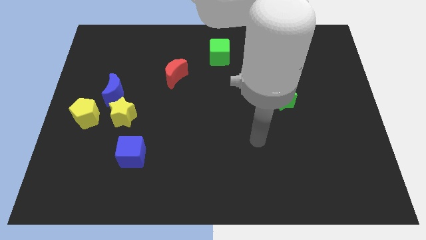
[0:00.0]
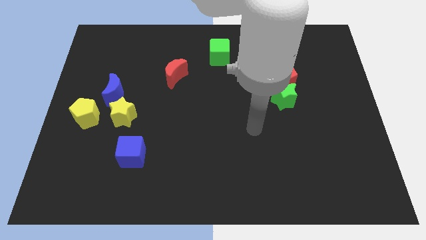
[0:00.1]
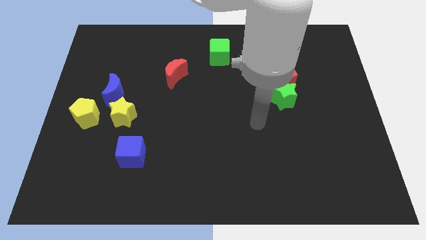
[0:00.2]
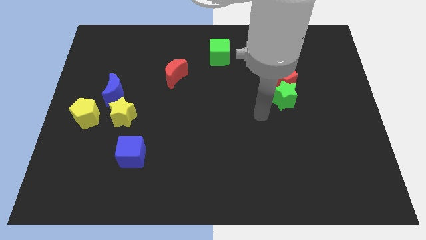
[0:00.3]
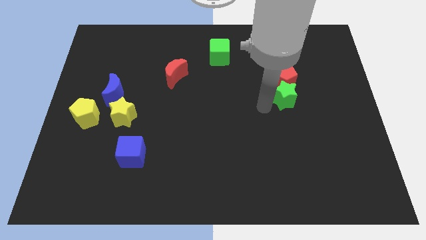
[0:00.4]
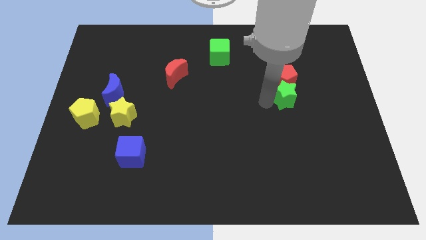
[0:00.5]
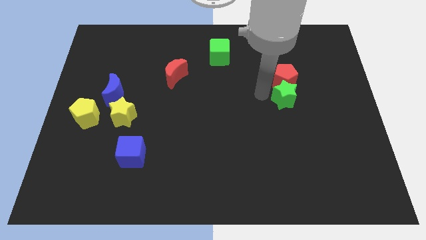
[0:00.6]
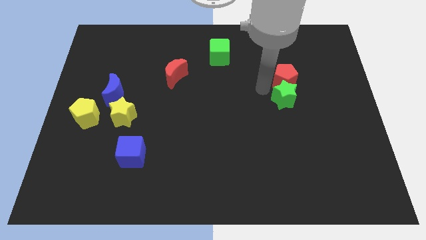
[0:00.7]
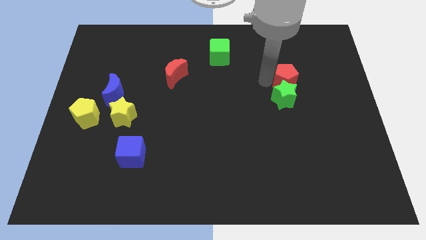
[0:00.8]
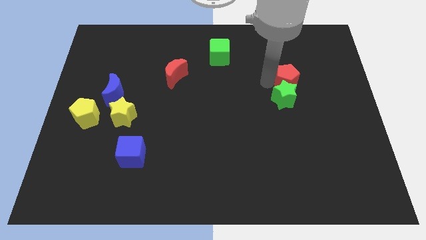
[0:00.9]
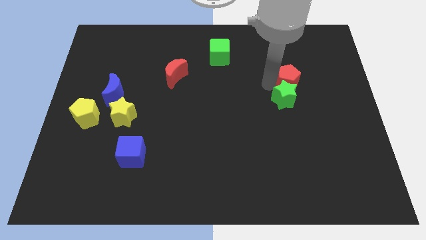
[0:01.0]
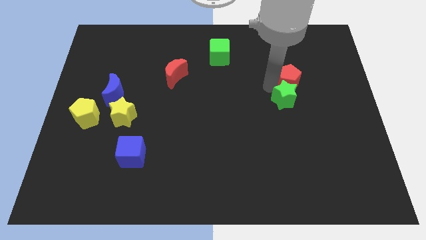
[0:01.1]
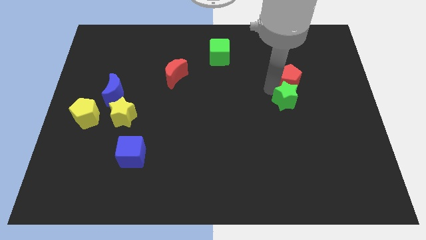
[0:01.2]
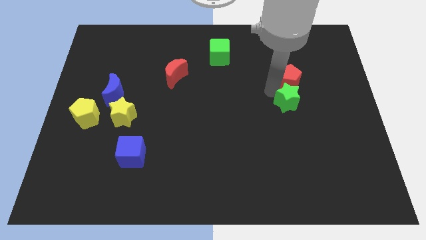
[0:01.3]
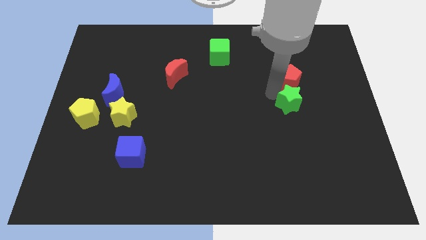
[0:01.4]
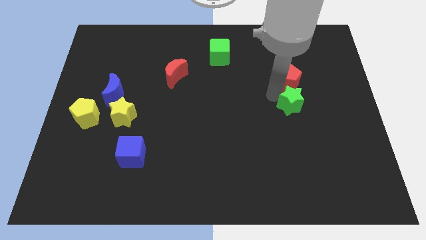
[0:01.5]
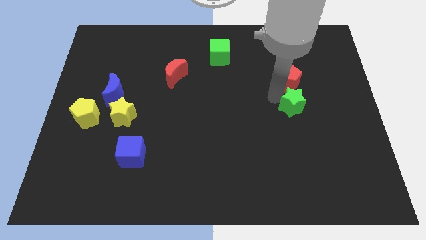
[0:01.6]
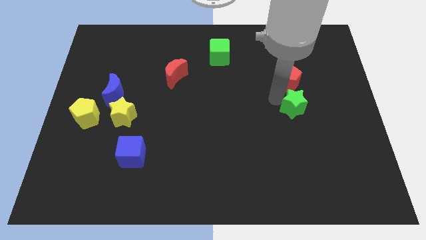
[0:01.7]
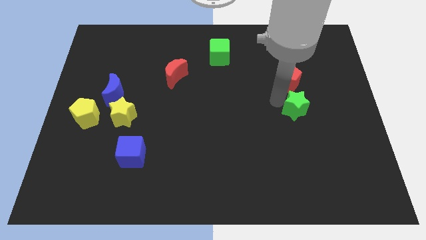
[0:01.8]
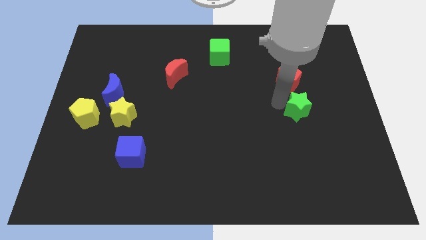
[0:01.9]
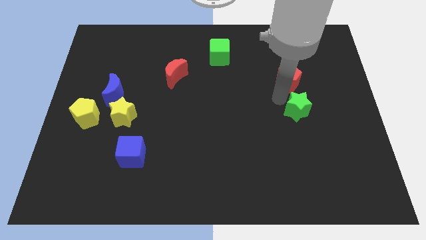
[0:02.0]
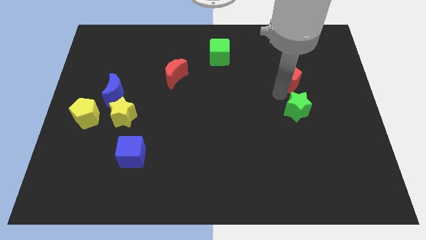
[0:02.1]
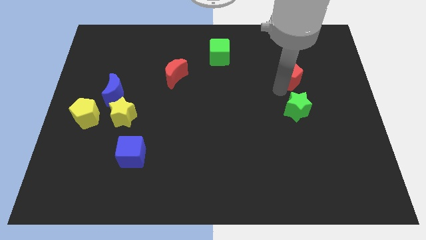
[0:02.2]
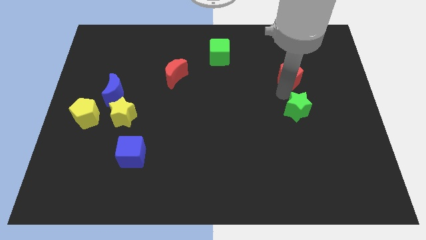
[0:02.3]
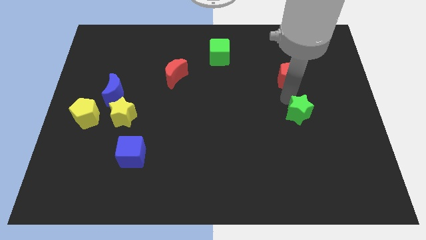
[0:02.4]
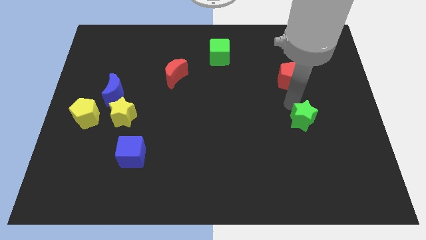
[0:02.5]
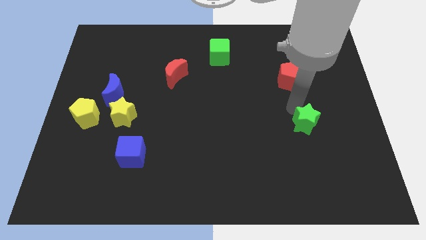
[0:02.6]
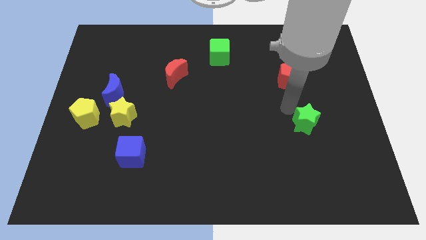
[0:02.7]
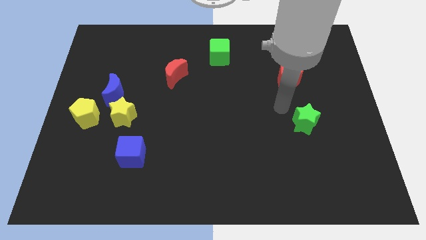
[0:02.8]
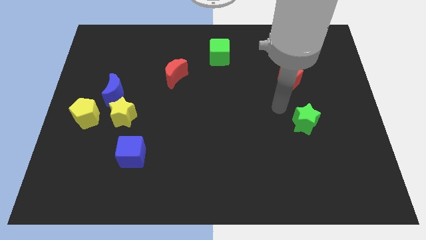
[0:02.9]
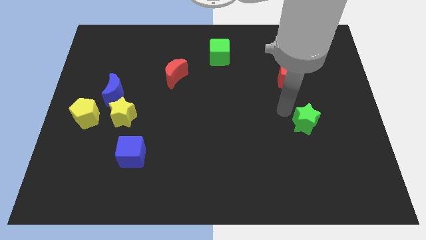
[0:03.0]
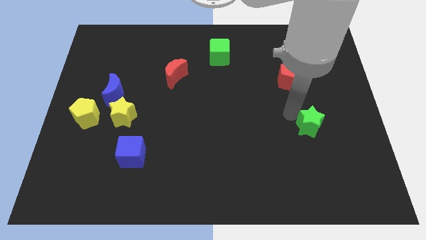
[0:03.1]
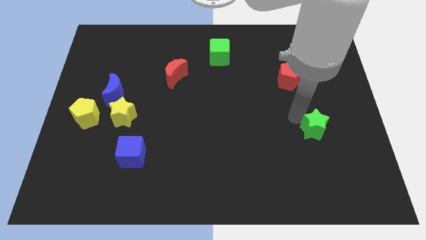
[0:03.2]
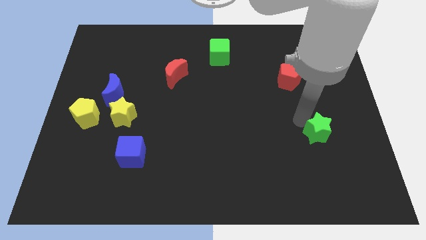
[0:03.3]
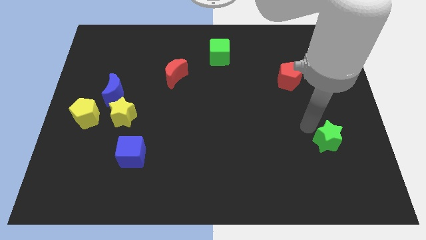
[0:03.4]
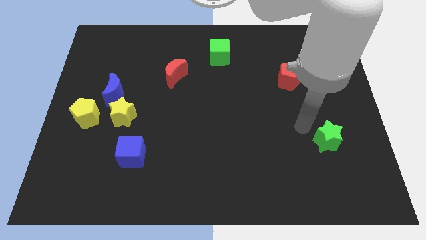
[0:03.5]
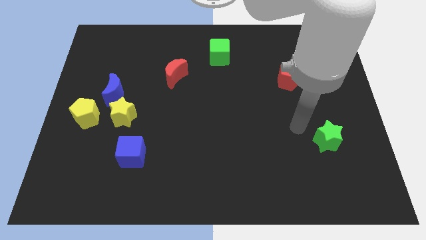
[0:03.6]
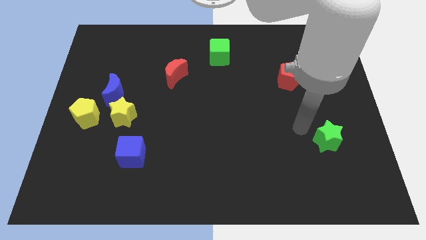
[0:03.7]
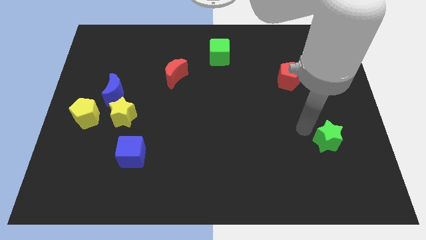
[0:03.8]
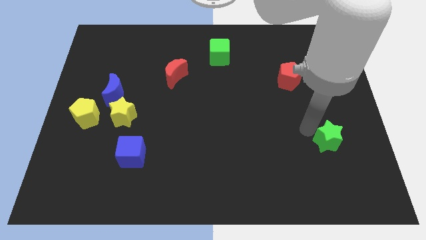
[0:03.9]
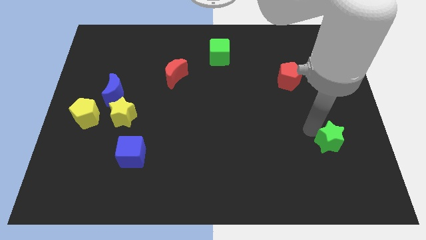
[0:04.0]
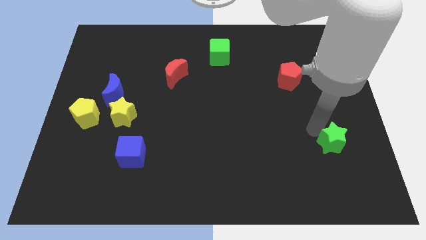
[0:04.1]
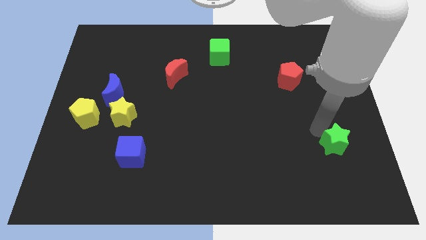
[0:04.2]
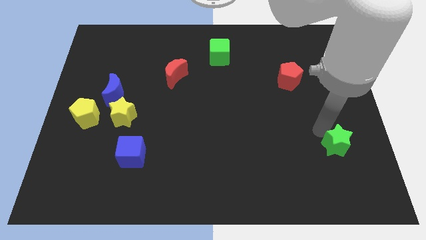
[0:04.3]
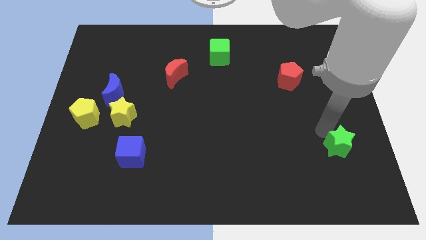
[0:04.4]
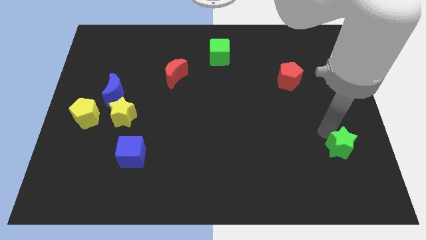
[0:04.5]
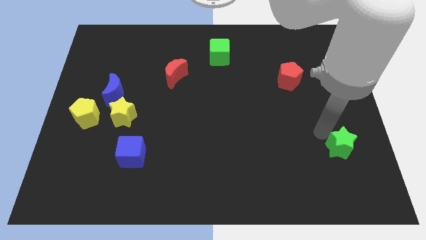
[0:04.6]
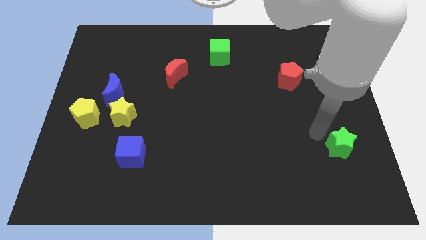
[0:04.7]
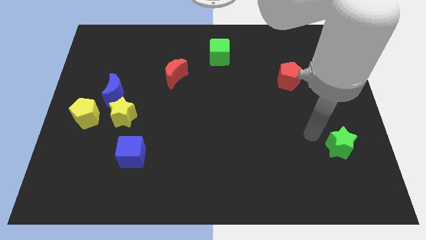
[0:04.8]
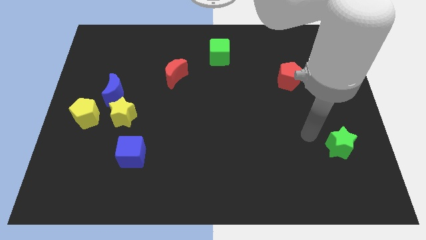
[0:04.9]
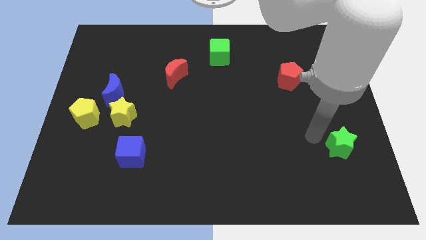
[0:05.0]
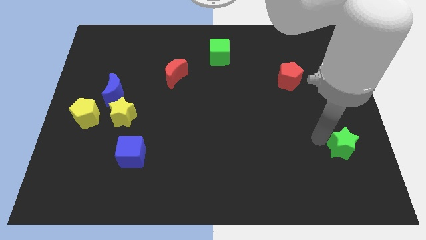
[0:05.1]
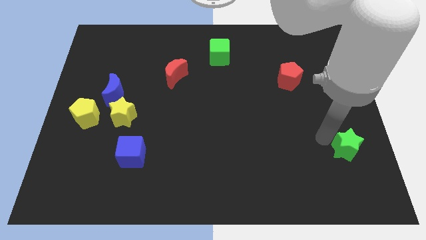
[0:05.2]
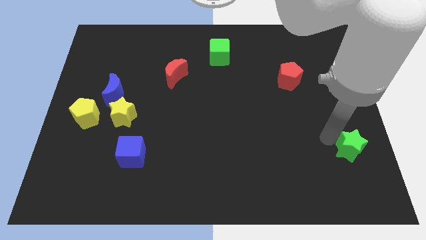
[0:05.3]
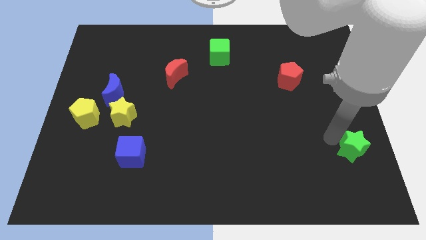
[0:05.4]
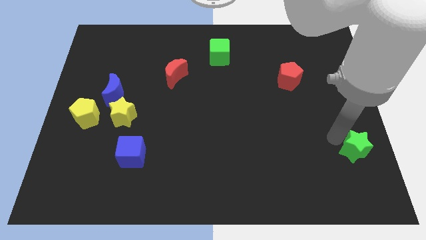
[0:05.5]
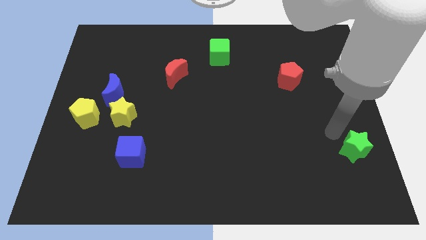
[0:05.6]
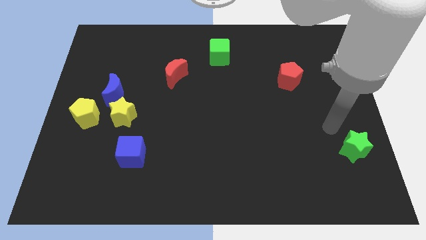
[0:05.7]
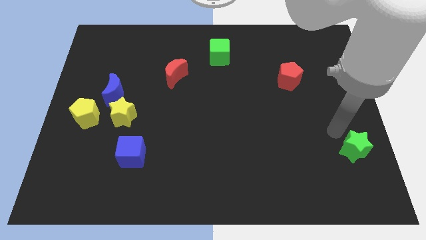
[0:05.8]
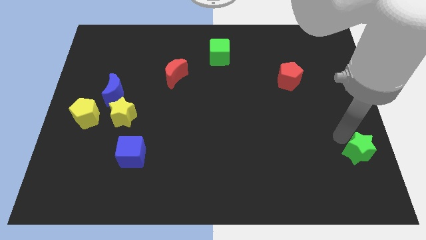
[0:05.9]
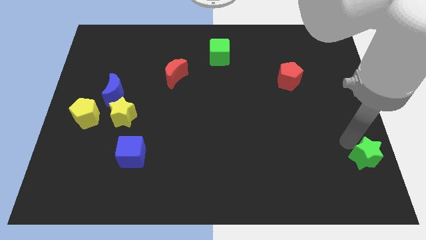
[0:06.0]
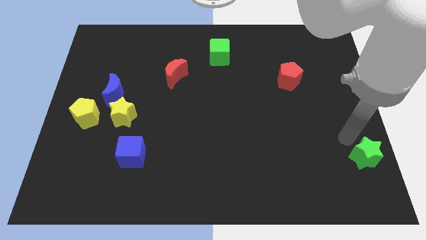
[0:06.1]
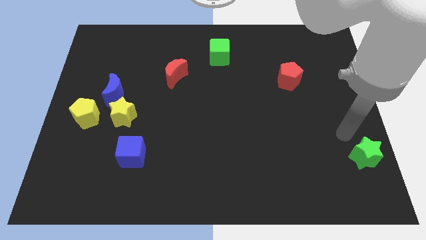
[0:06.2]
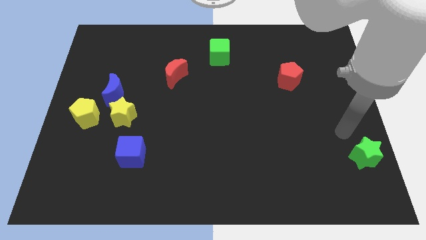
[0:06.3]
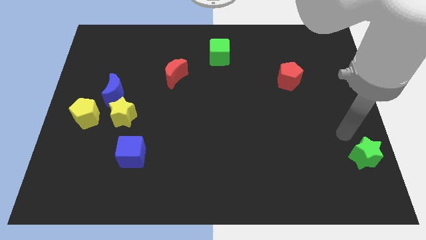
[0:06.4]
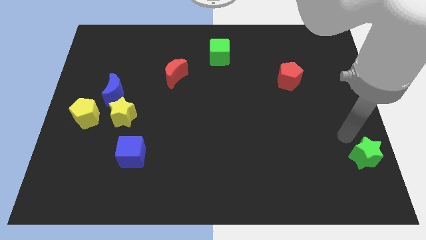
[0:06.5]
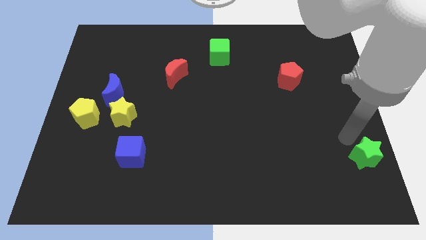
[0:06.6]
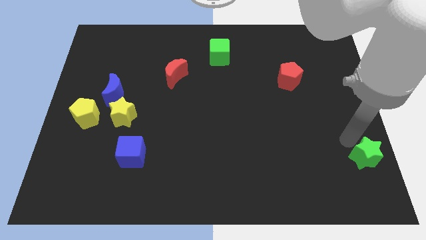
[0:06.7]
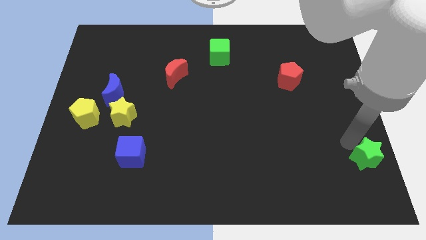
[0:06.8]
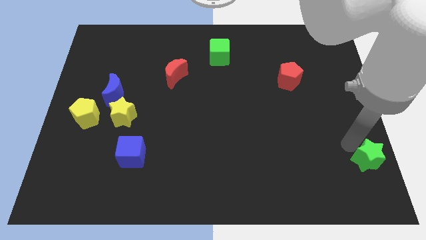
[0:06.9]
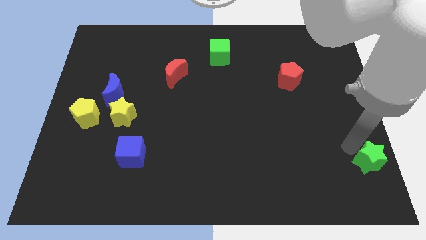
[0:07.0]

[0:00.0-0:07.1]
put the green star to the bottom right of the board
